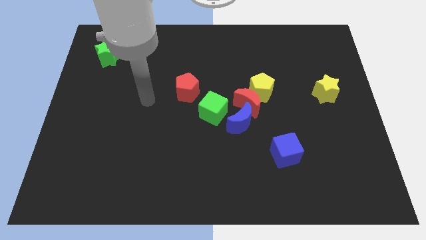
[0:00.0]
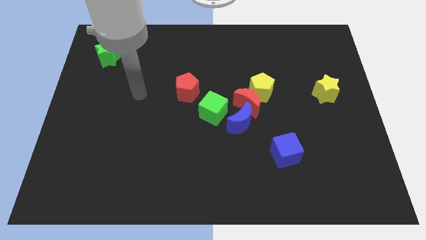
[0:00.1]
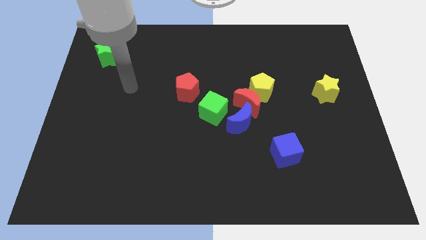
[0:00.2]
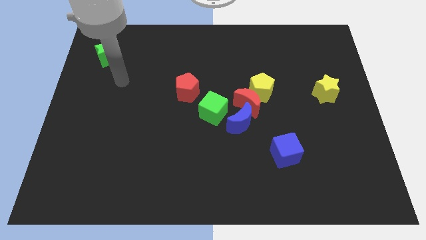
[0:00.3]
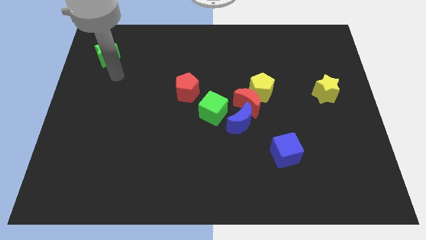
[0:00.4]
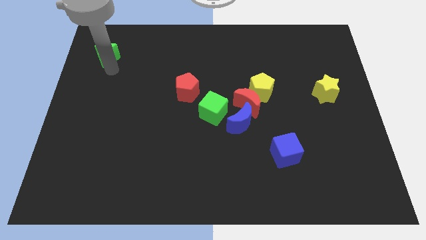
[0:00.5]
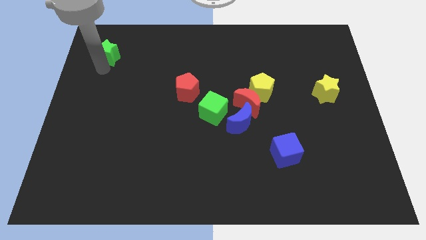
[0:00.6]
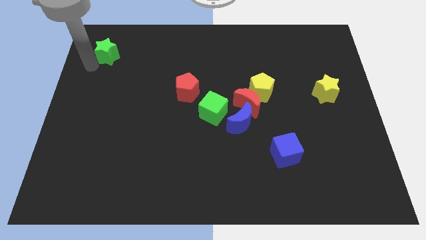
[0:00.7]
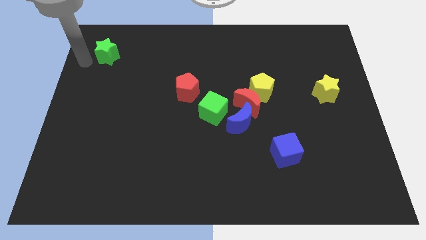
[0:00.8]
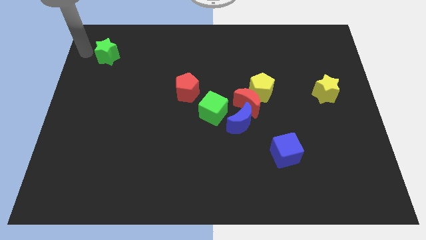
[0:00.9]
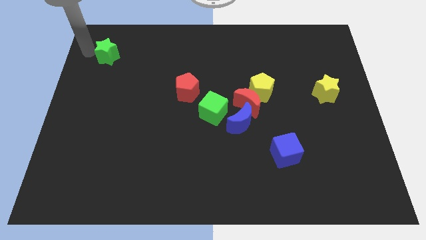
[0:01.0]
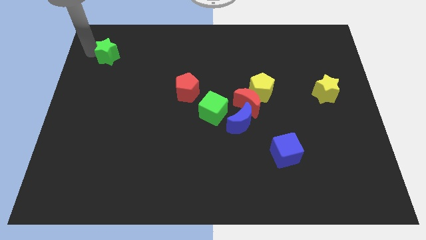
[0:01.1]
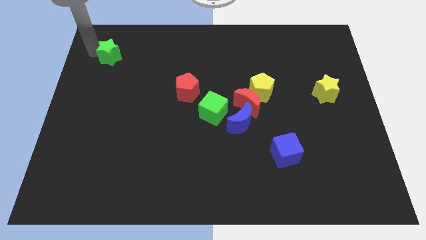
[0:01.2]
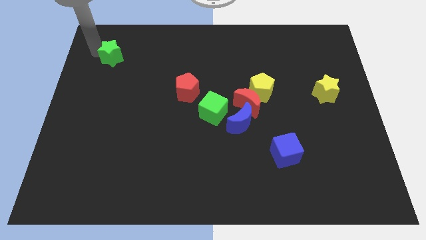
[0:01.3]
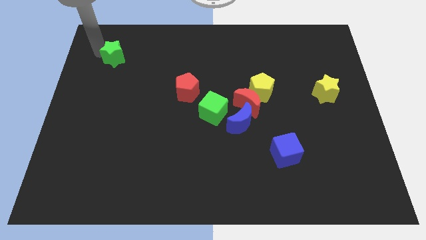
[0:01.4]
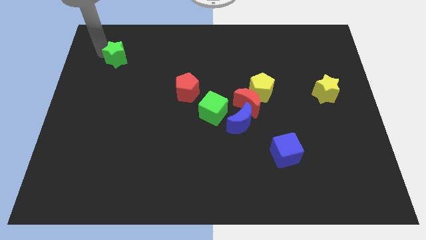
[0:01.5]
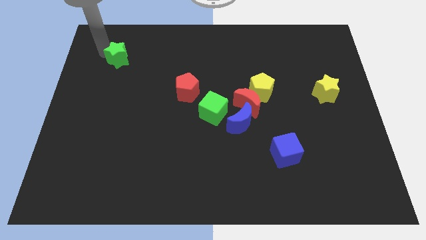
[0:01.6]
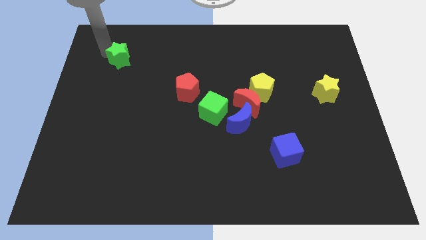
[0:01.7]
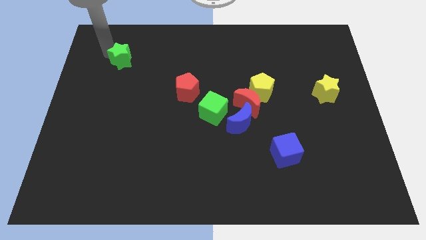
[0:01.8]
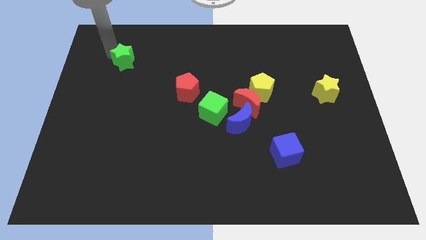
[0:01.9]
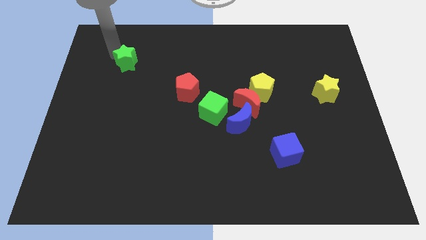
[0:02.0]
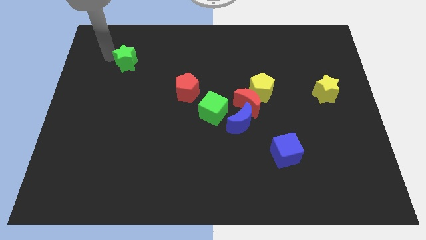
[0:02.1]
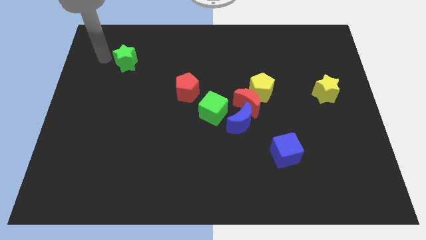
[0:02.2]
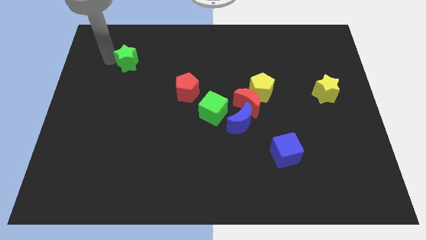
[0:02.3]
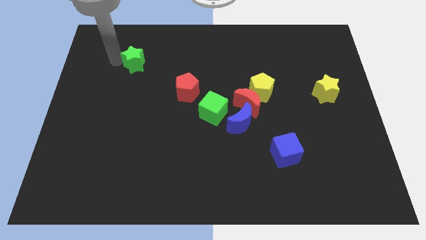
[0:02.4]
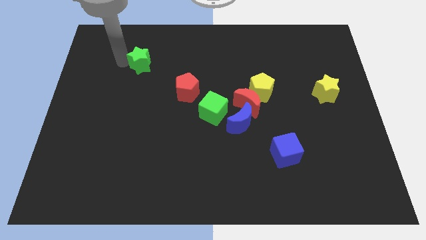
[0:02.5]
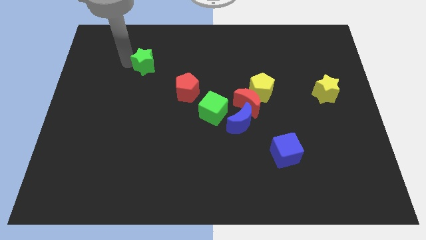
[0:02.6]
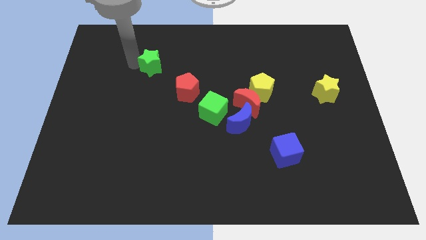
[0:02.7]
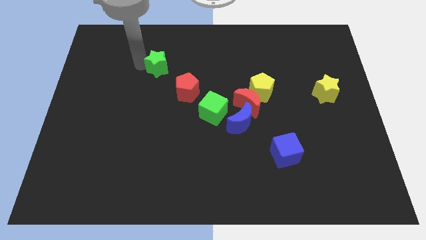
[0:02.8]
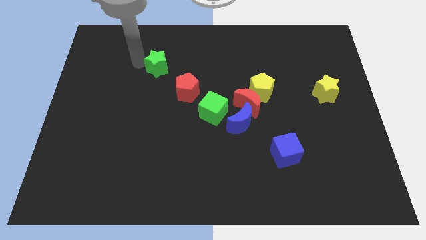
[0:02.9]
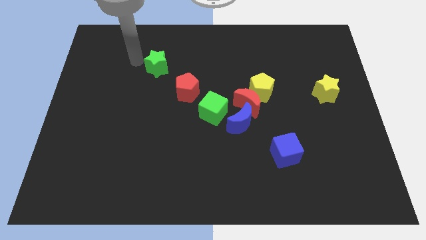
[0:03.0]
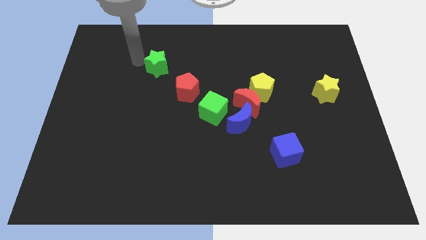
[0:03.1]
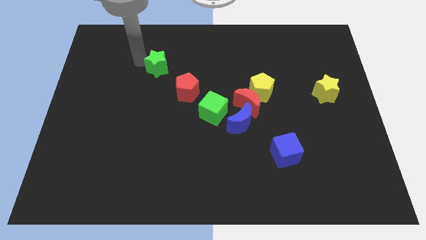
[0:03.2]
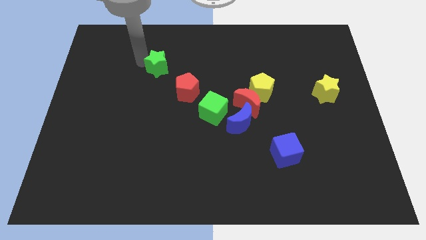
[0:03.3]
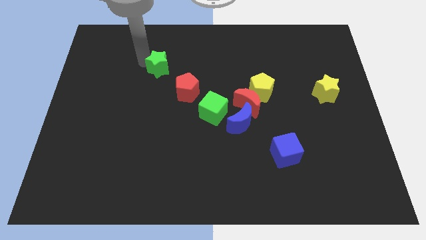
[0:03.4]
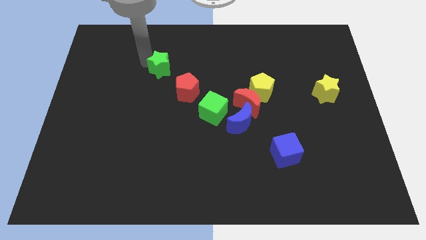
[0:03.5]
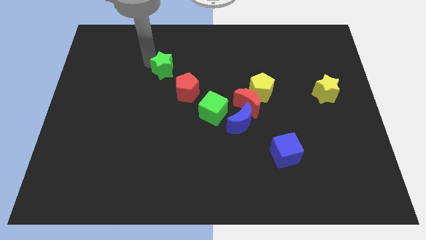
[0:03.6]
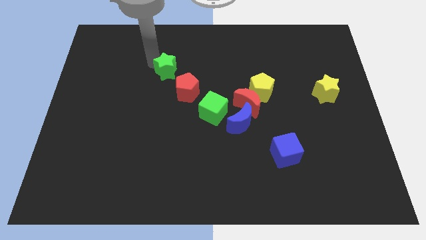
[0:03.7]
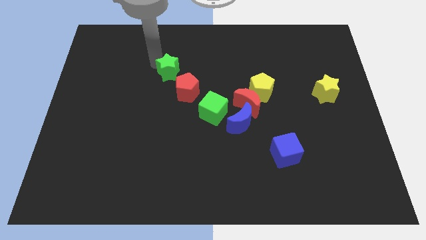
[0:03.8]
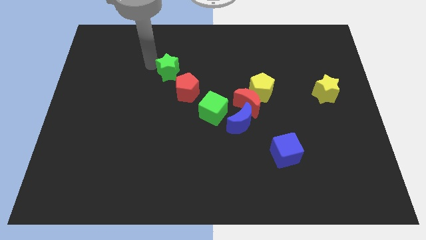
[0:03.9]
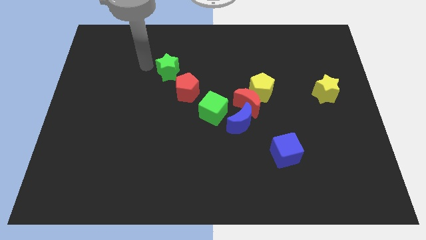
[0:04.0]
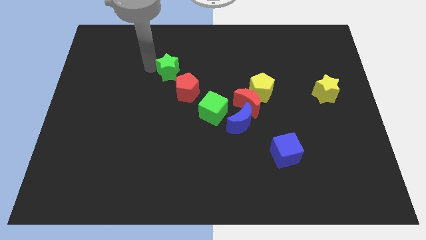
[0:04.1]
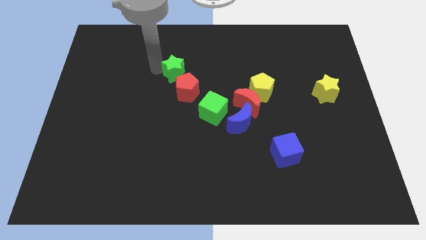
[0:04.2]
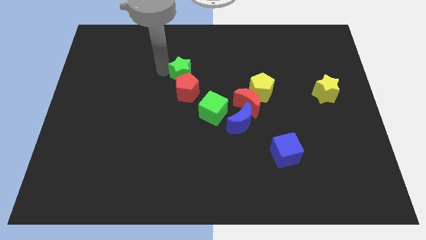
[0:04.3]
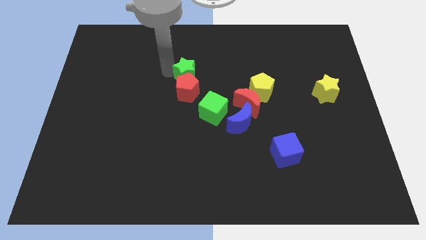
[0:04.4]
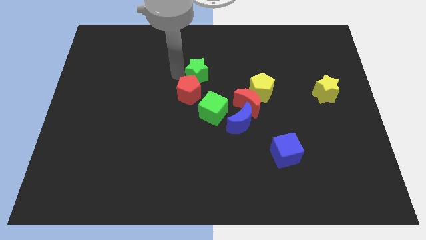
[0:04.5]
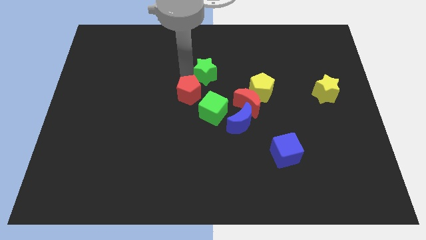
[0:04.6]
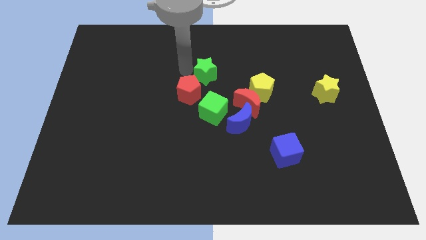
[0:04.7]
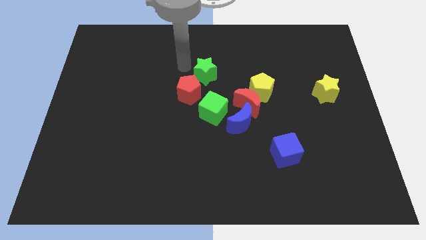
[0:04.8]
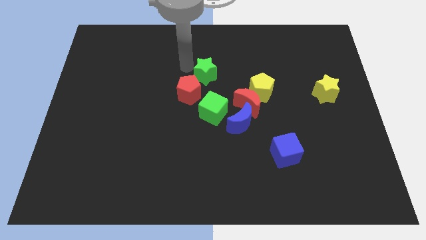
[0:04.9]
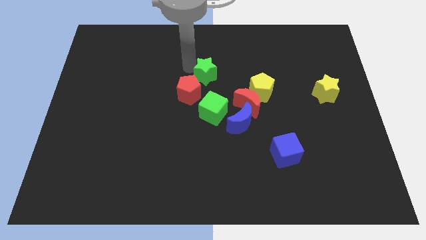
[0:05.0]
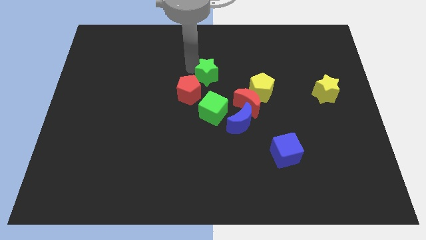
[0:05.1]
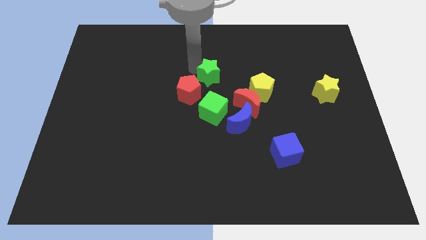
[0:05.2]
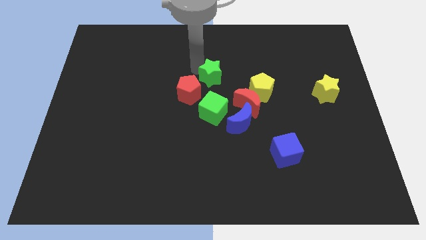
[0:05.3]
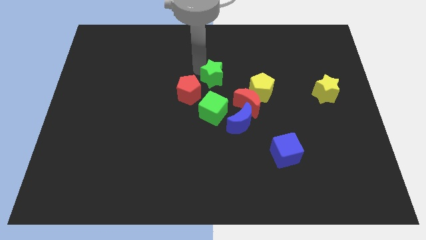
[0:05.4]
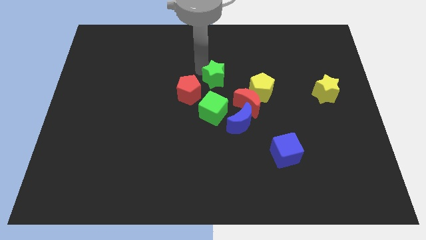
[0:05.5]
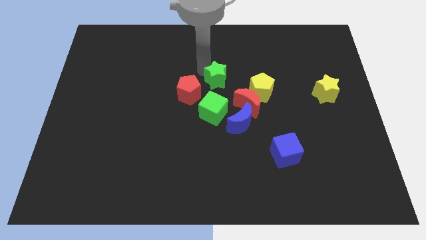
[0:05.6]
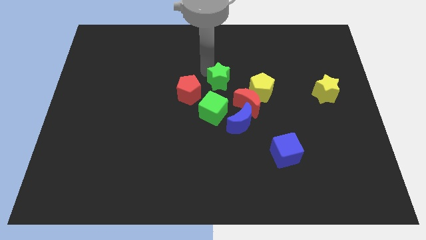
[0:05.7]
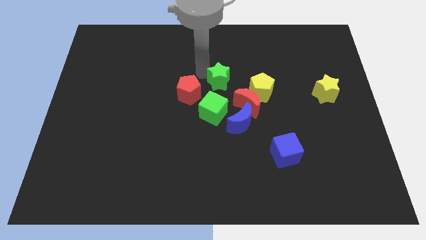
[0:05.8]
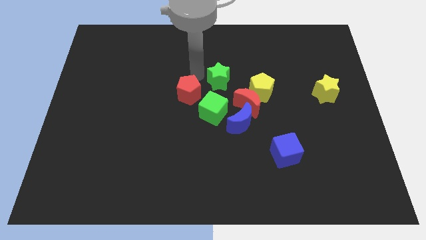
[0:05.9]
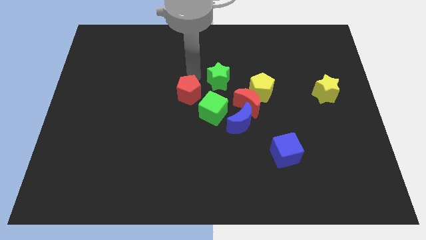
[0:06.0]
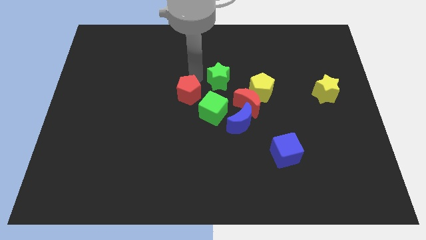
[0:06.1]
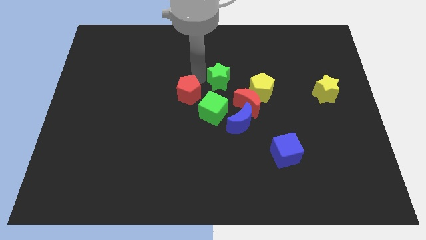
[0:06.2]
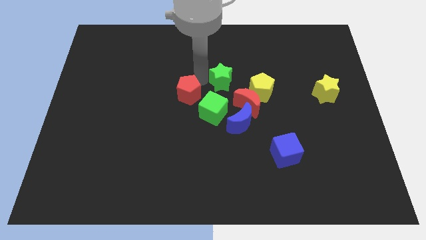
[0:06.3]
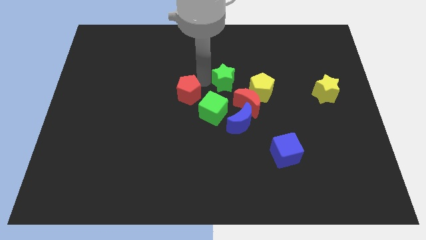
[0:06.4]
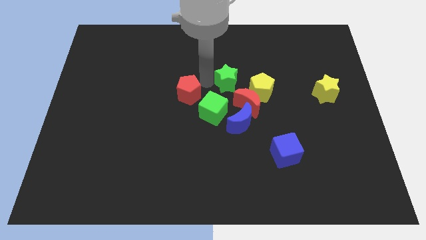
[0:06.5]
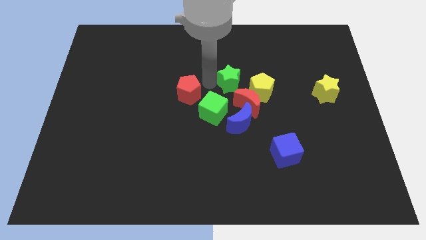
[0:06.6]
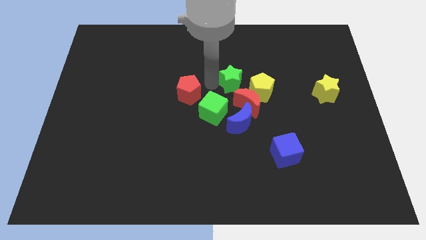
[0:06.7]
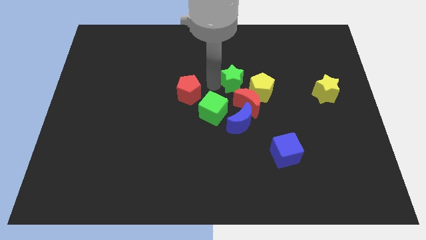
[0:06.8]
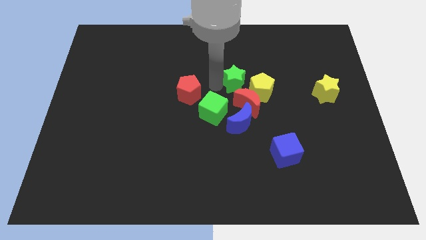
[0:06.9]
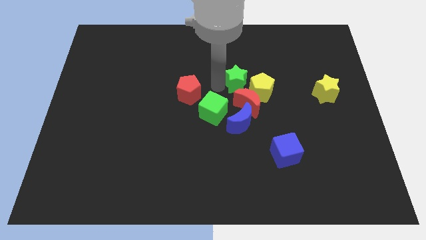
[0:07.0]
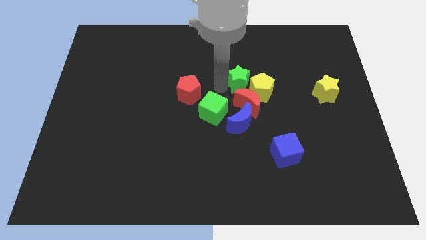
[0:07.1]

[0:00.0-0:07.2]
move the green star next to the yellow pentagon

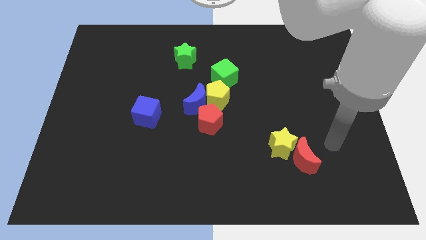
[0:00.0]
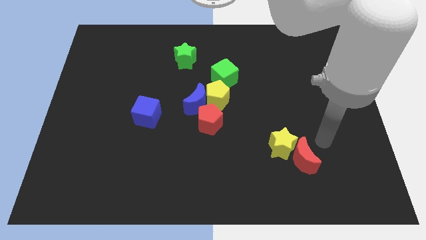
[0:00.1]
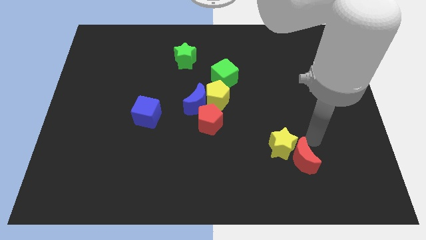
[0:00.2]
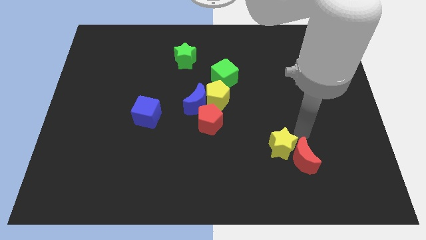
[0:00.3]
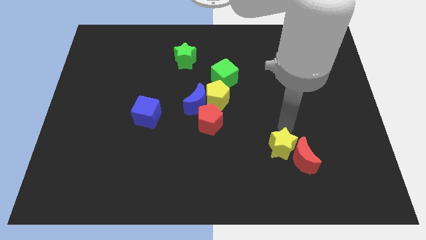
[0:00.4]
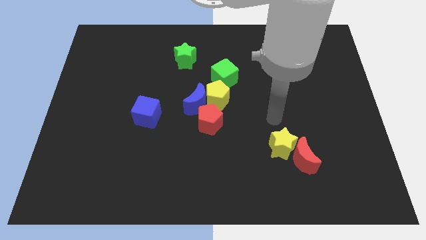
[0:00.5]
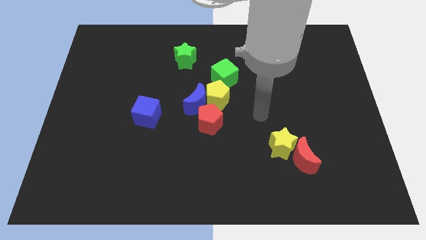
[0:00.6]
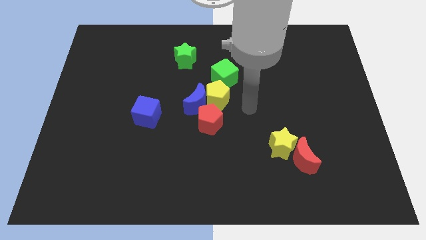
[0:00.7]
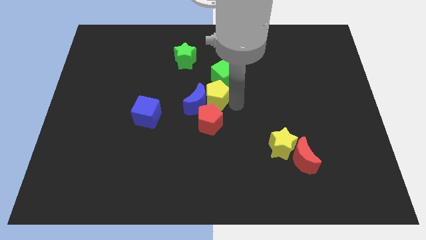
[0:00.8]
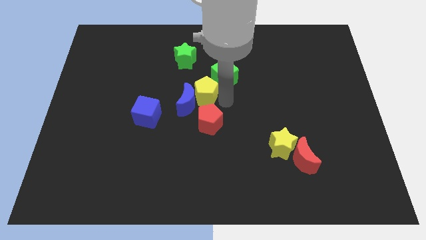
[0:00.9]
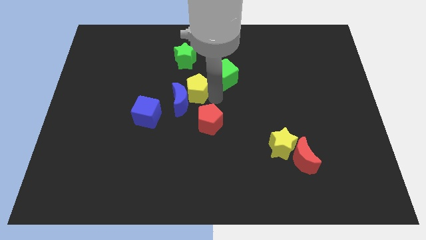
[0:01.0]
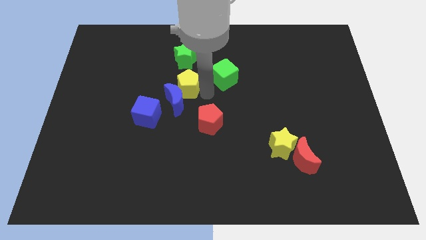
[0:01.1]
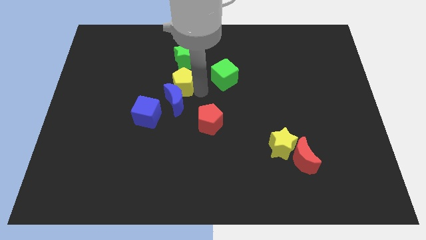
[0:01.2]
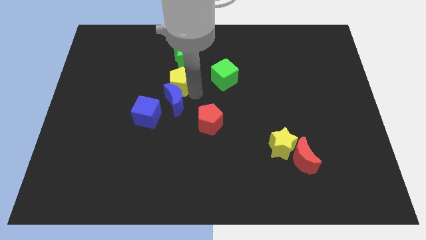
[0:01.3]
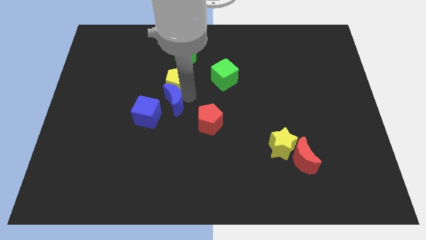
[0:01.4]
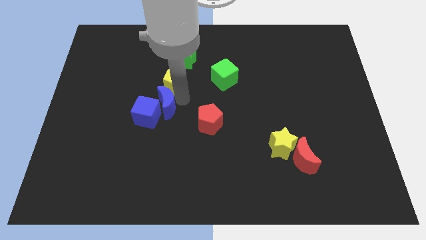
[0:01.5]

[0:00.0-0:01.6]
push the blue moon next to the blue cube
